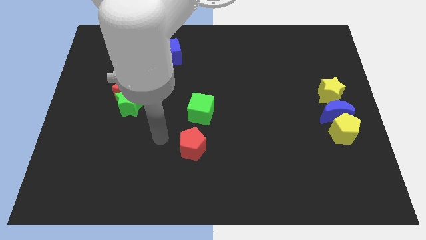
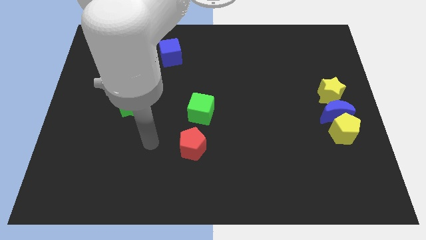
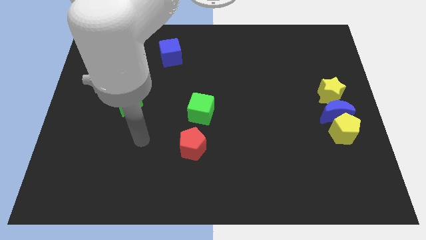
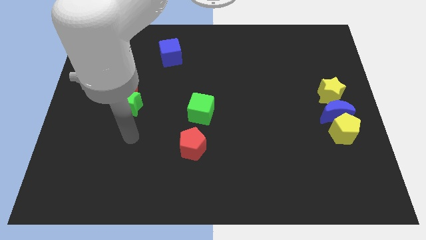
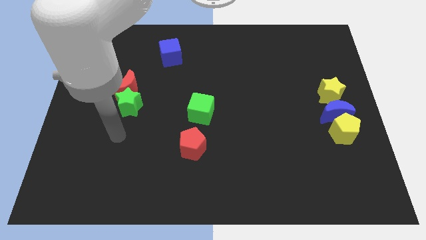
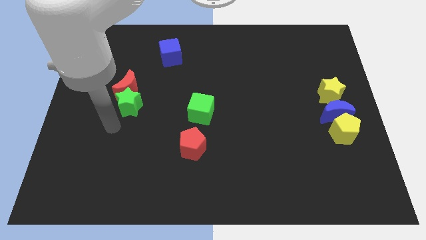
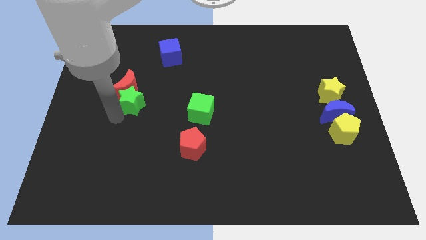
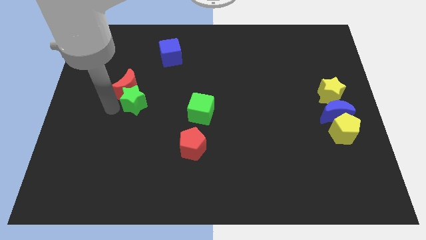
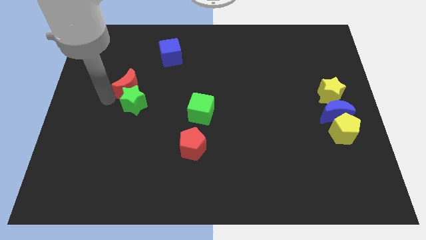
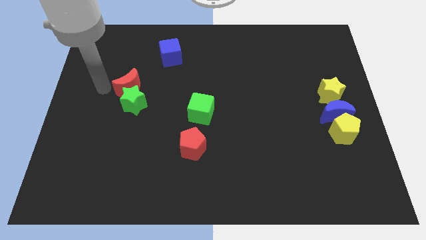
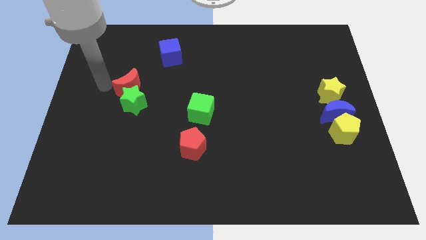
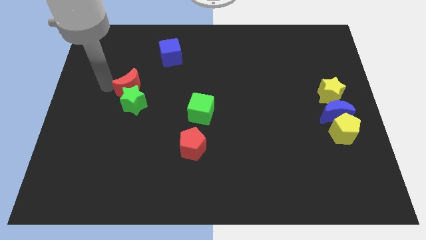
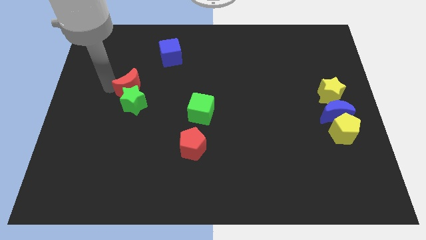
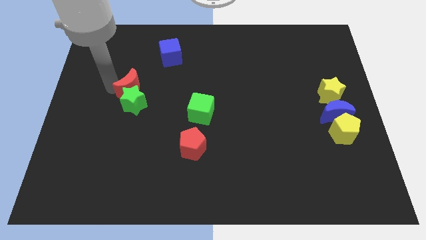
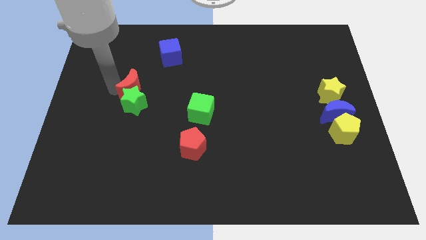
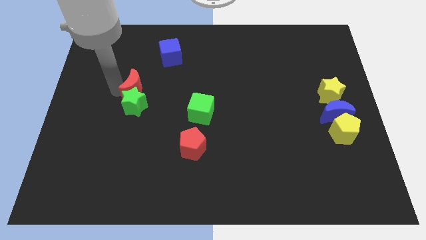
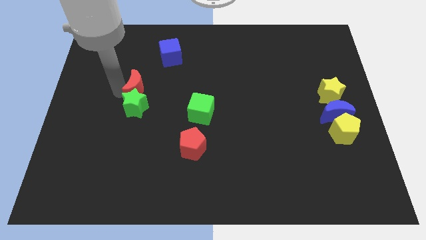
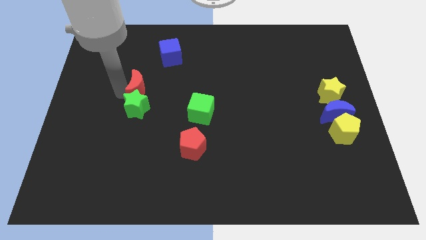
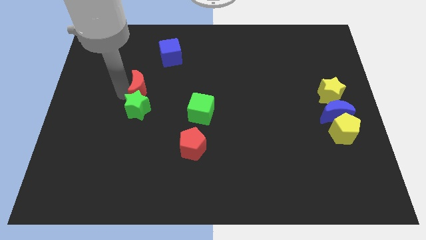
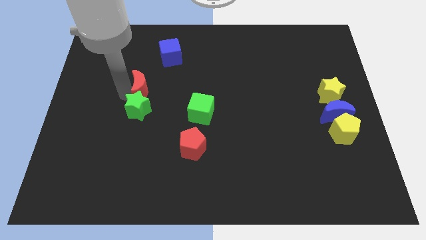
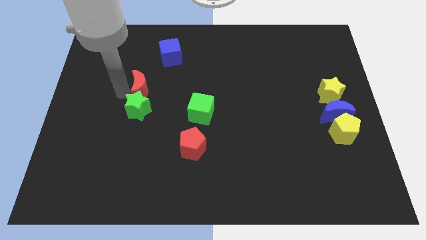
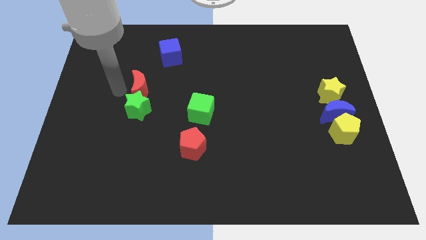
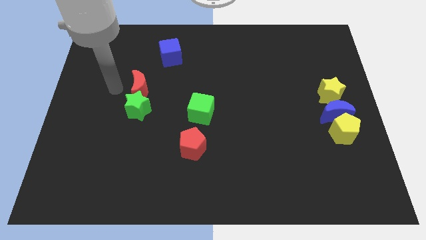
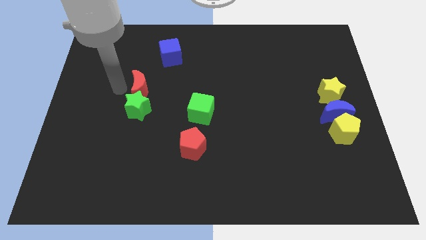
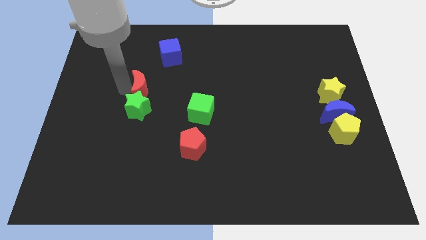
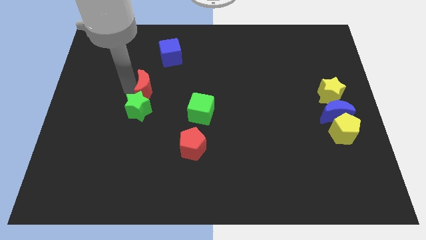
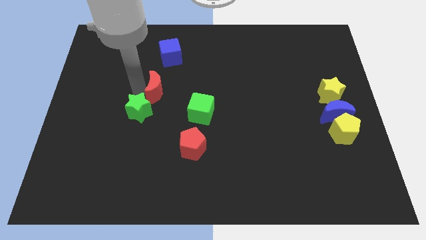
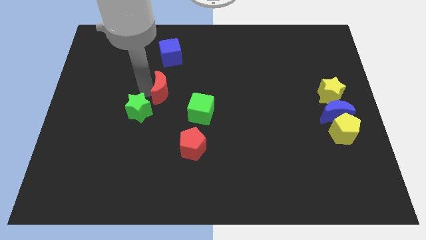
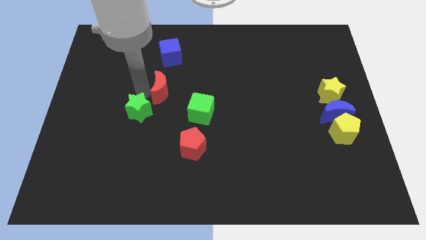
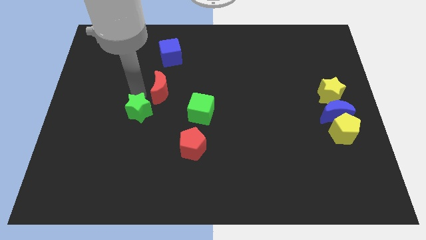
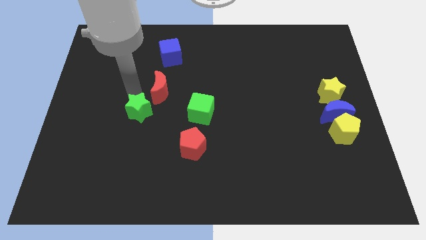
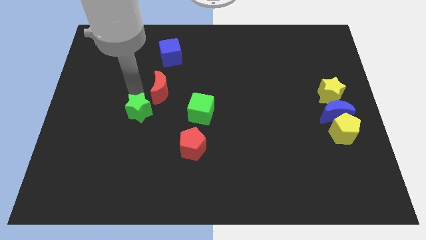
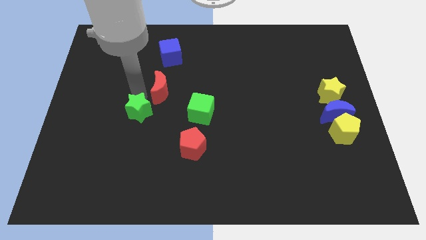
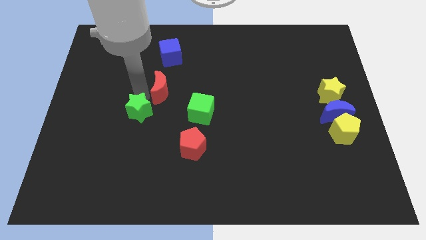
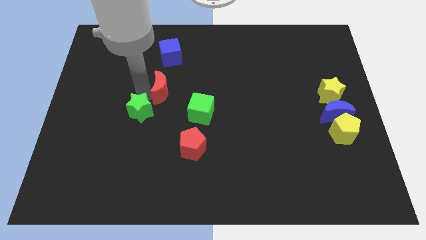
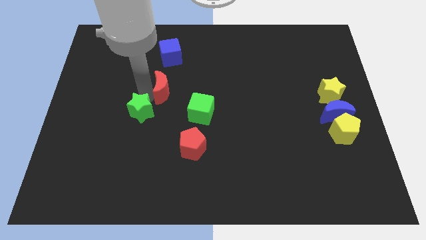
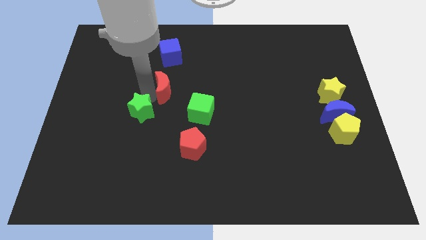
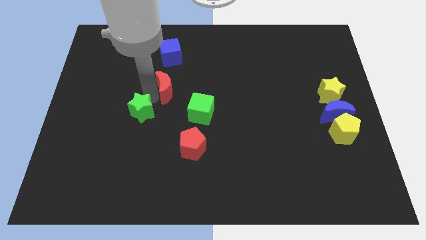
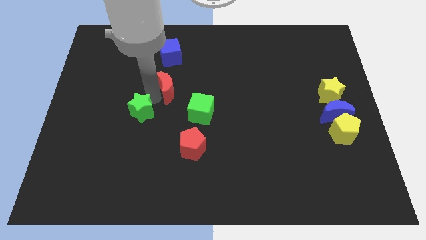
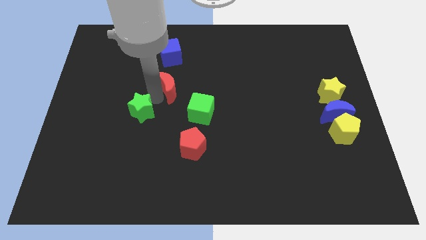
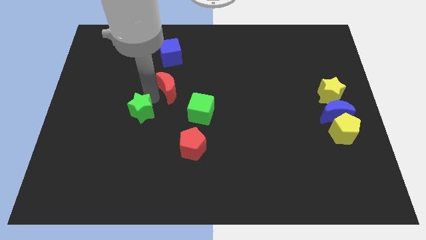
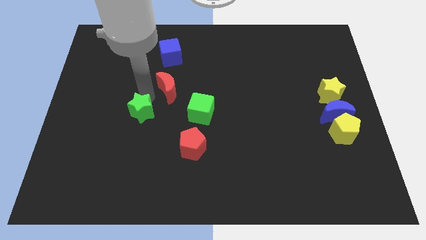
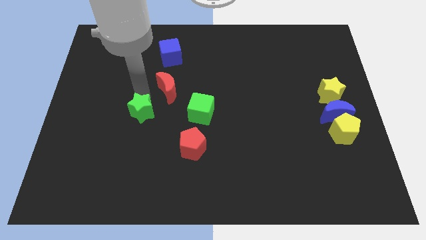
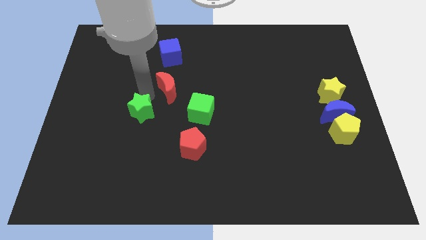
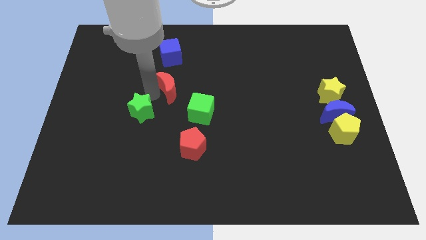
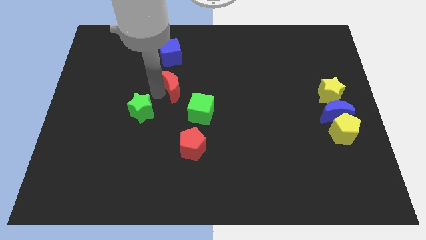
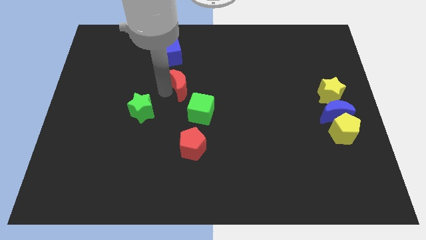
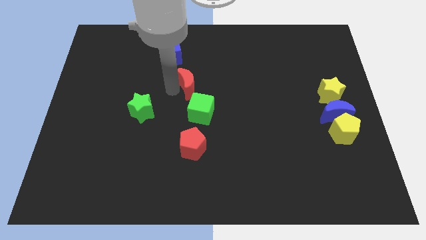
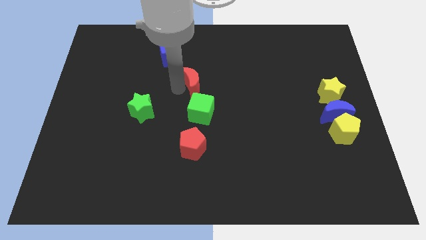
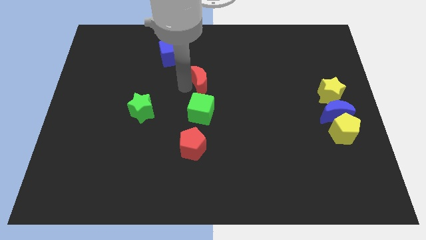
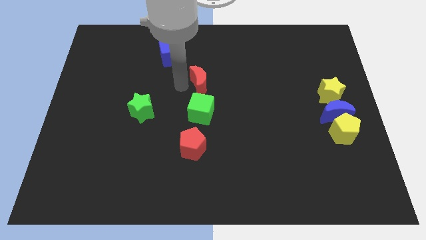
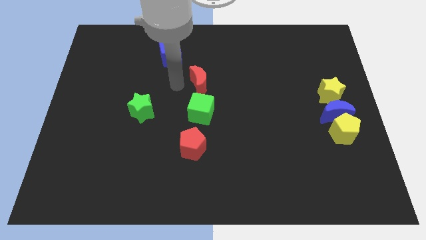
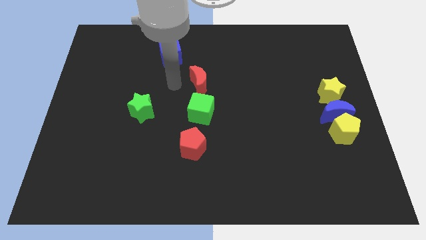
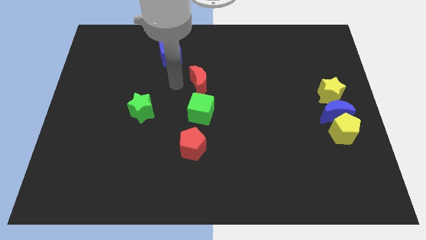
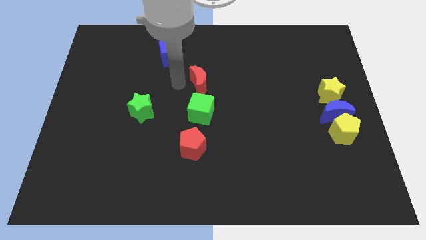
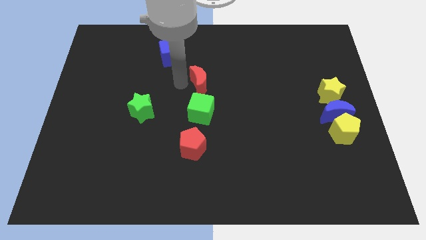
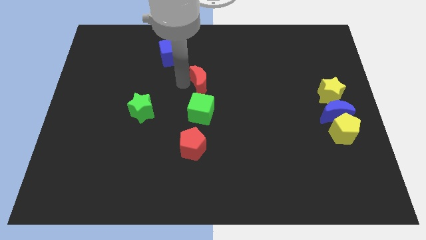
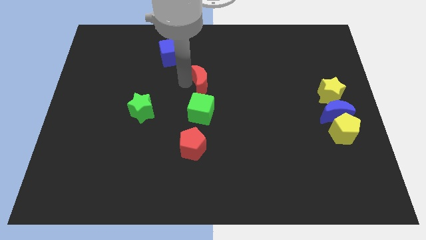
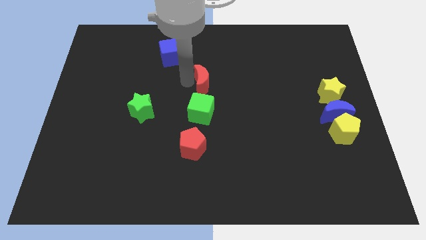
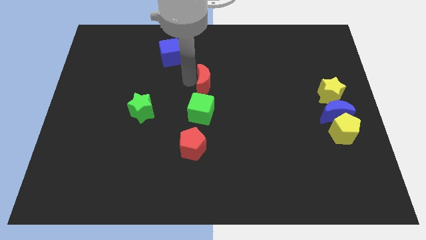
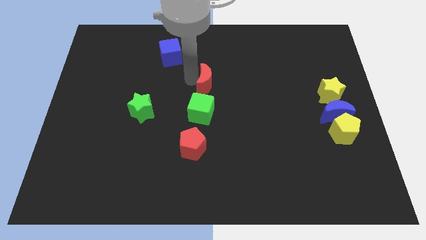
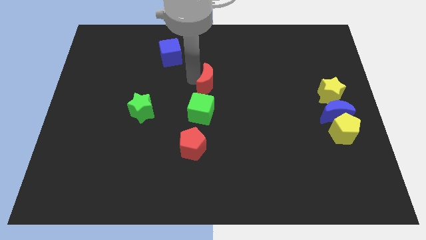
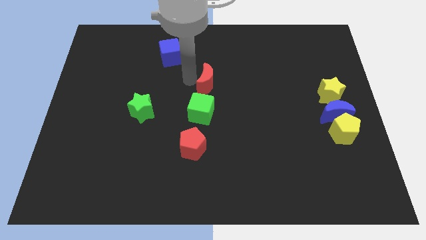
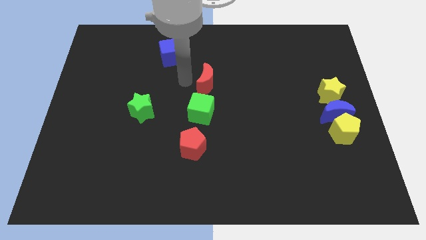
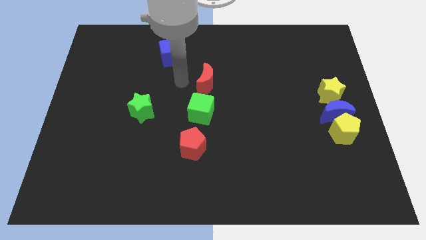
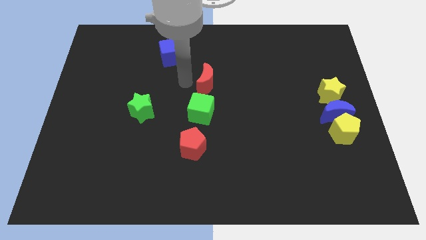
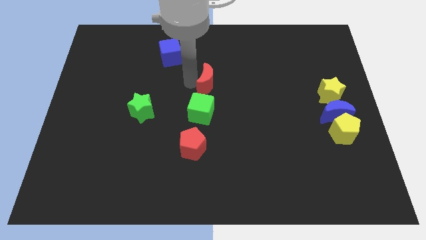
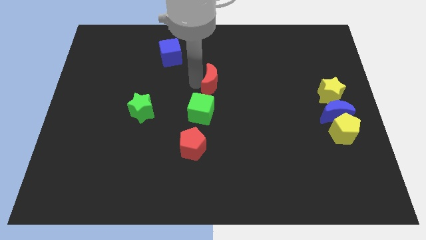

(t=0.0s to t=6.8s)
push the red moon to the right

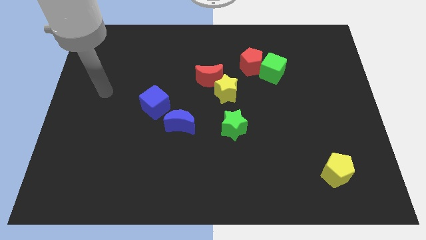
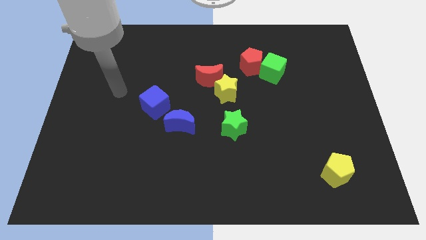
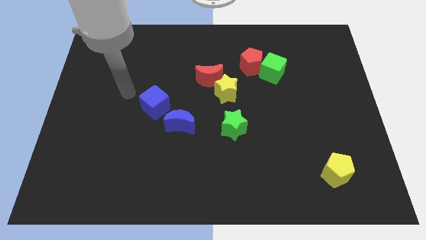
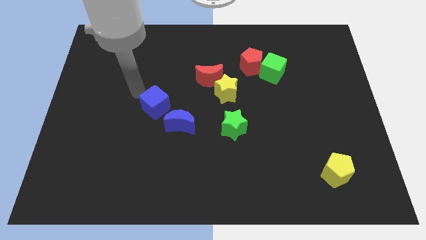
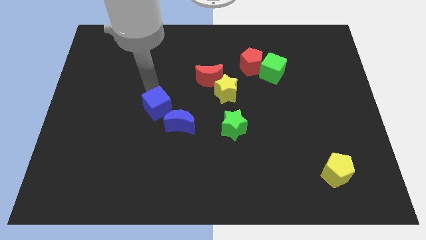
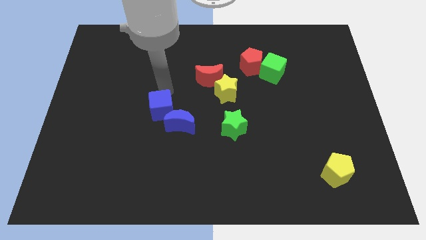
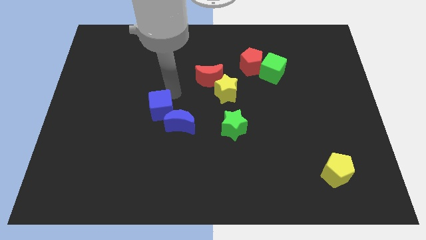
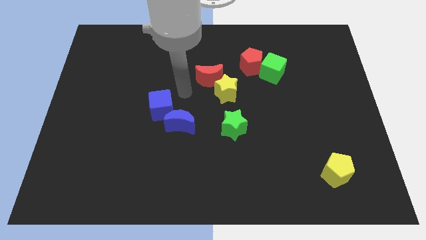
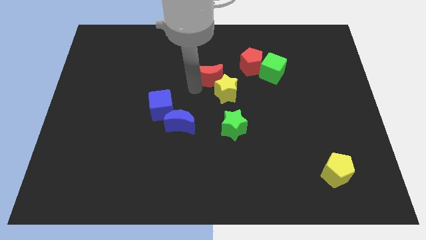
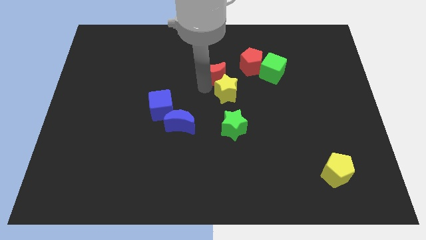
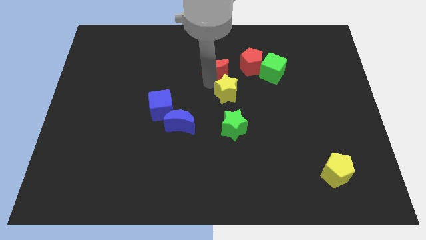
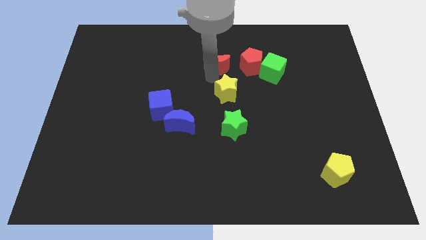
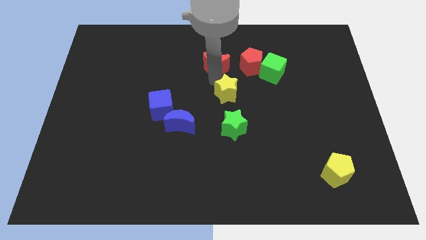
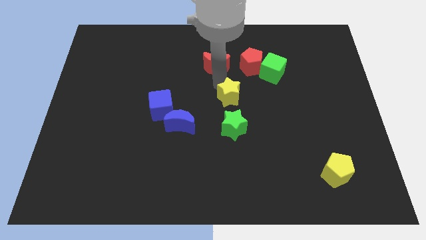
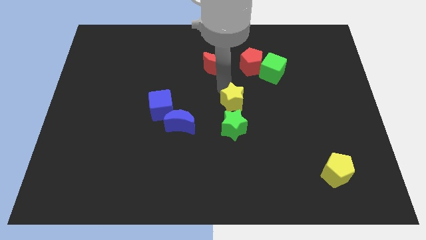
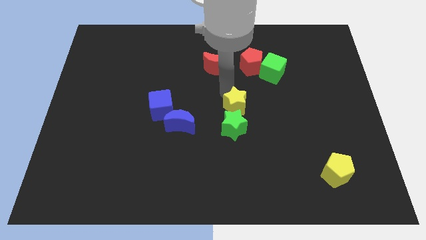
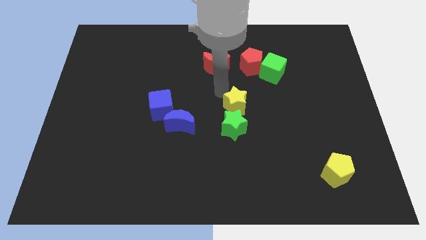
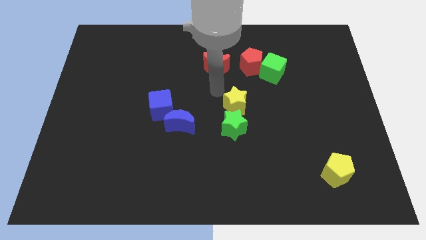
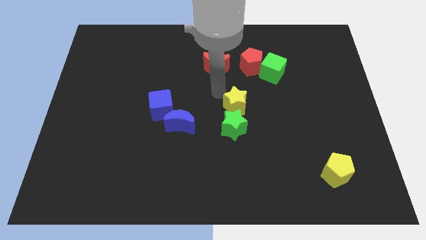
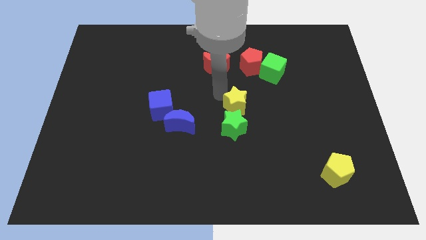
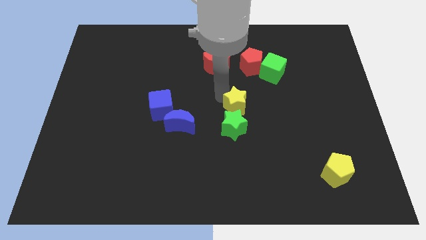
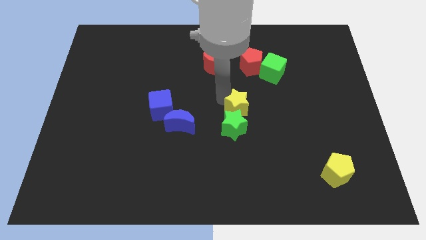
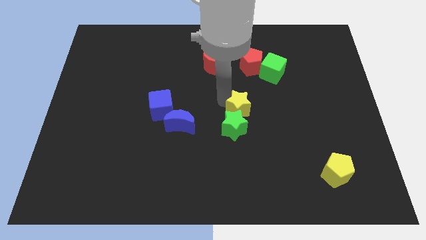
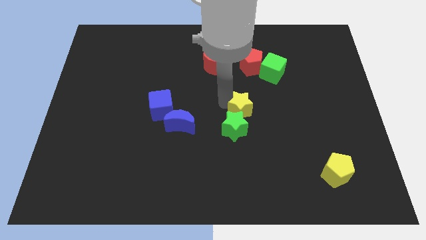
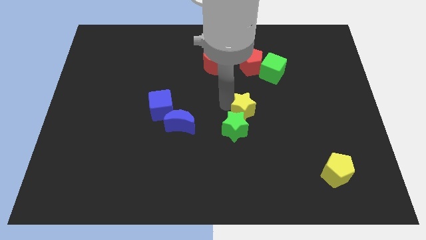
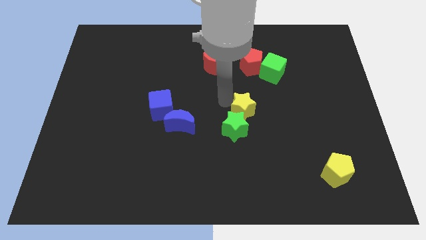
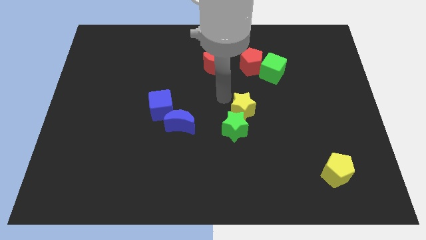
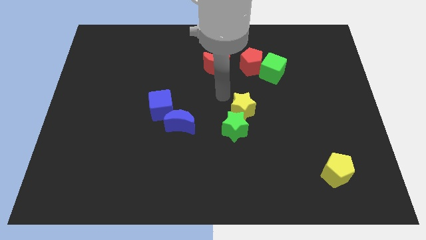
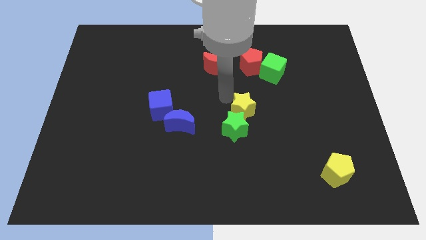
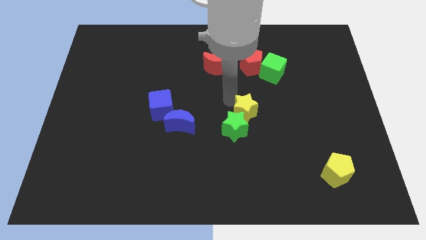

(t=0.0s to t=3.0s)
push the yellow star diagonally down and to the right a little bit
